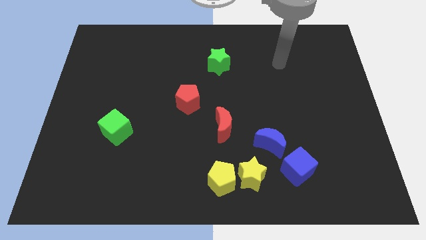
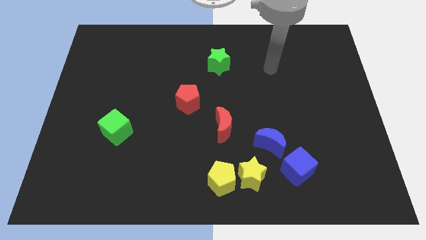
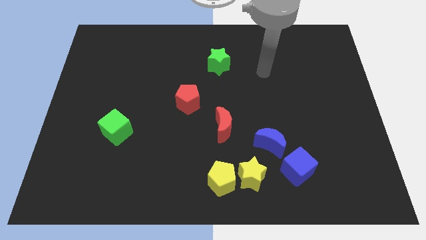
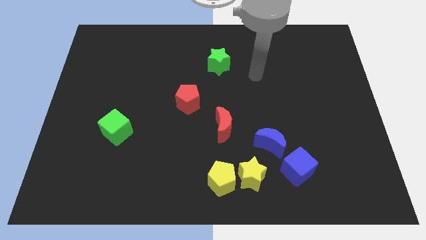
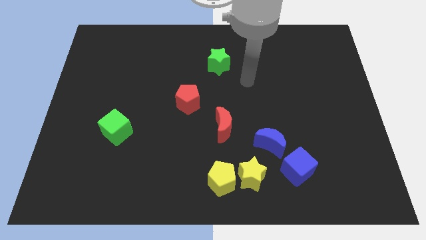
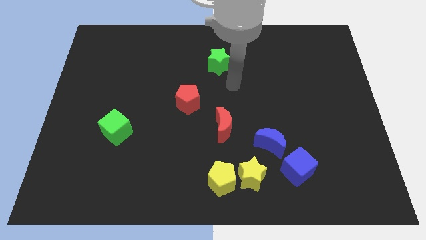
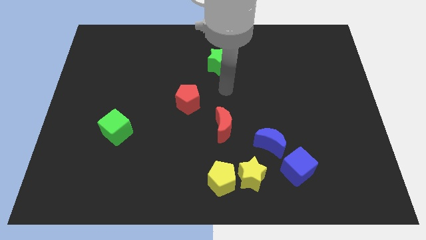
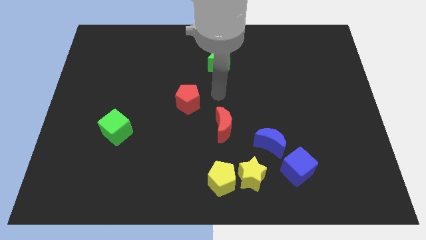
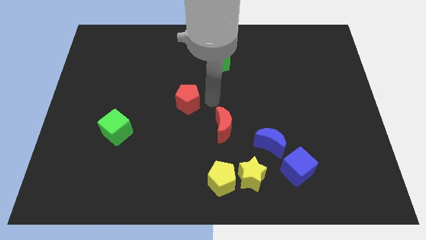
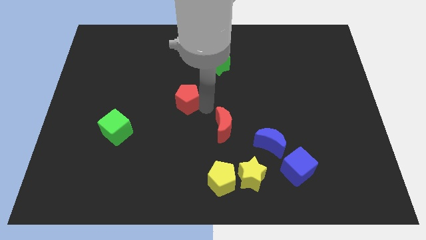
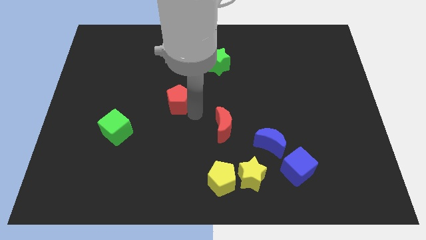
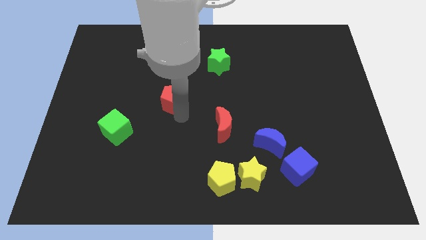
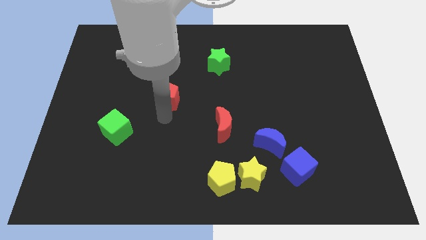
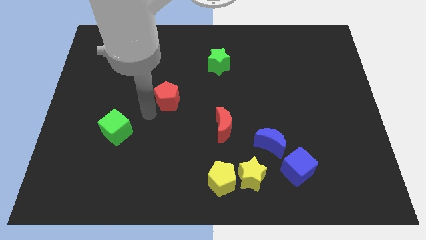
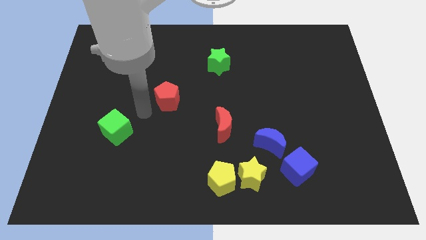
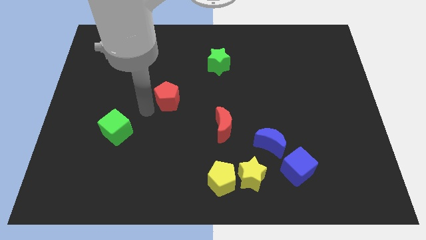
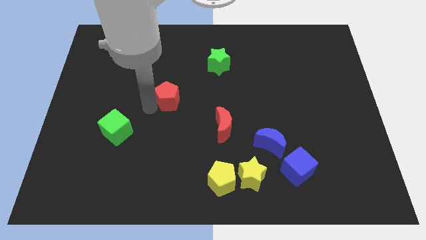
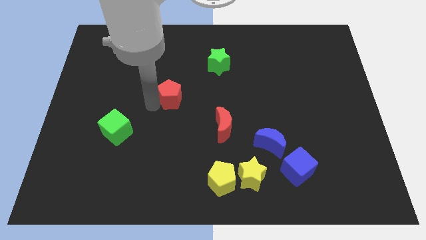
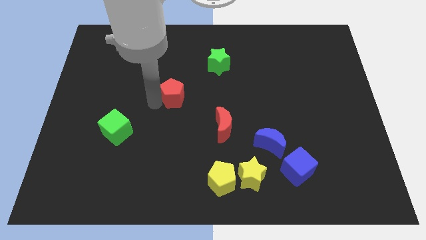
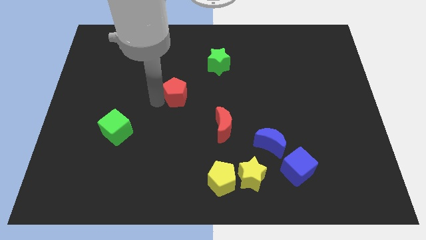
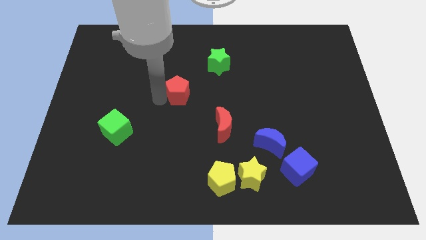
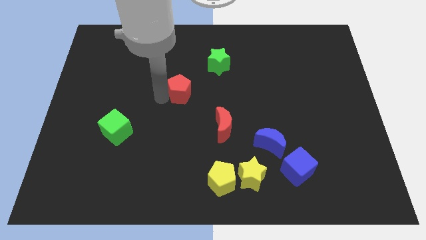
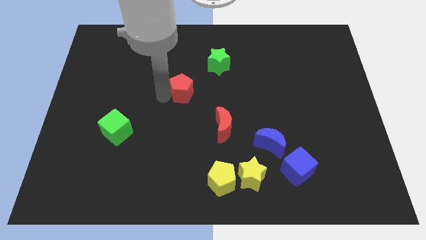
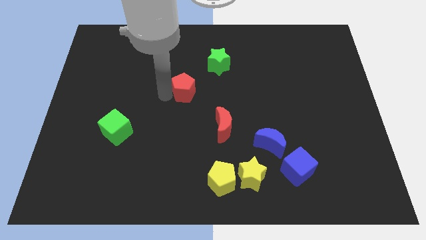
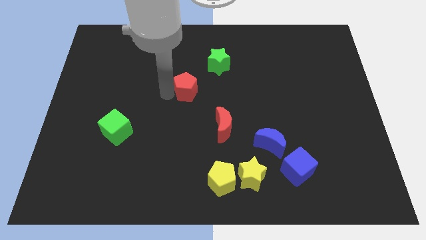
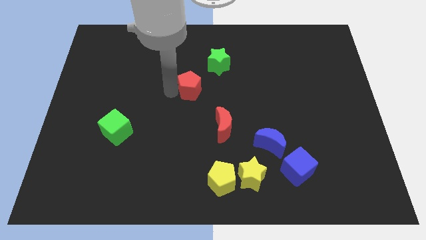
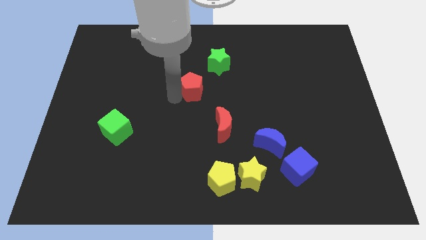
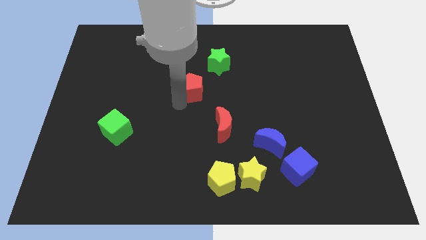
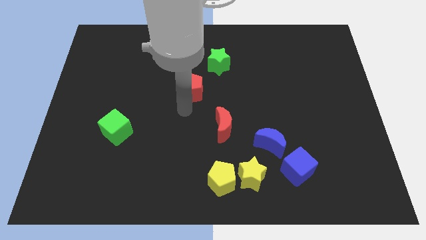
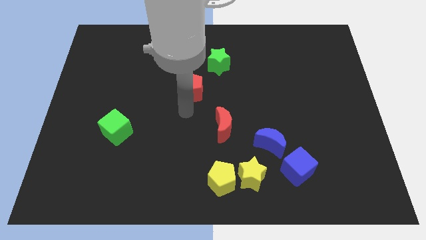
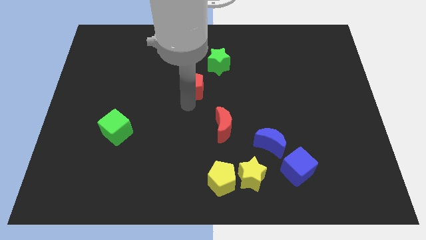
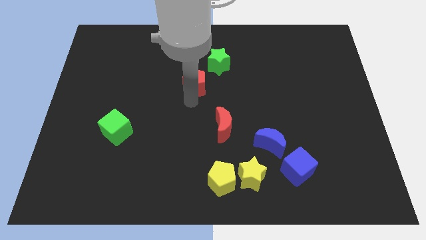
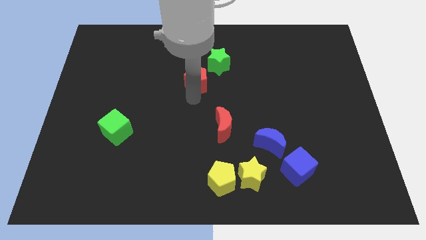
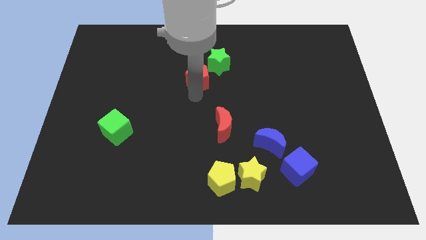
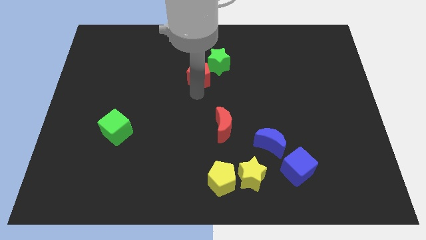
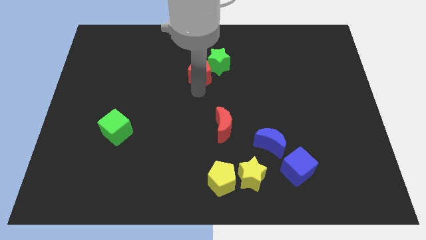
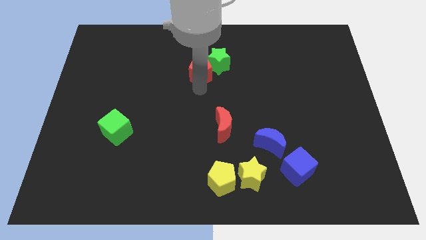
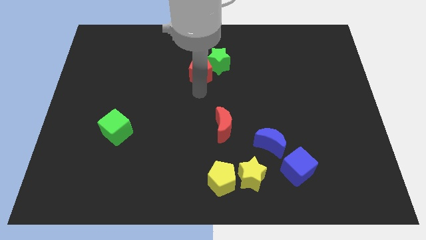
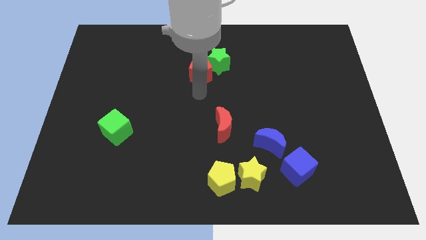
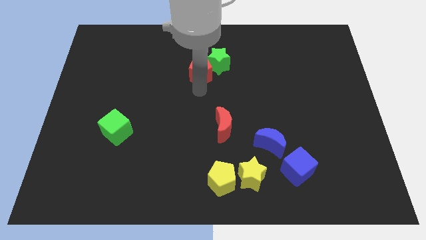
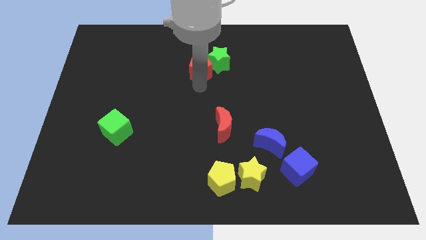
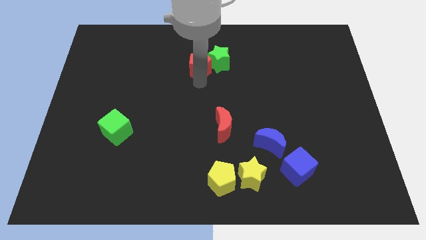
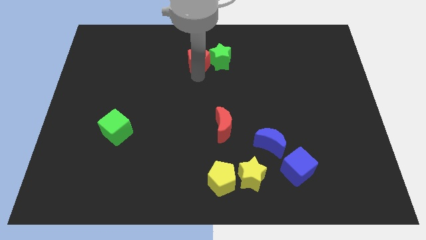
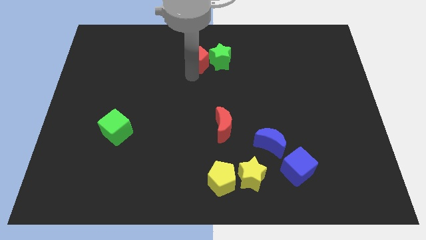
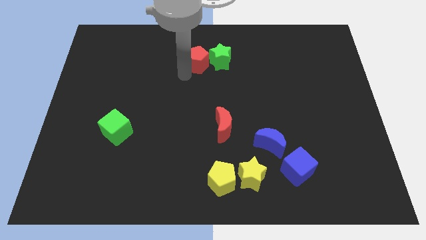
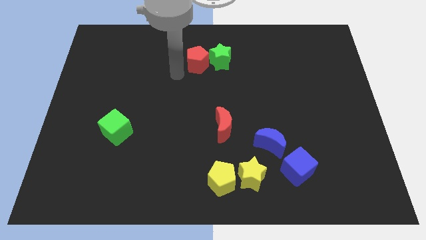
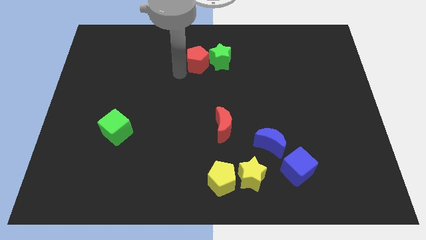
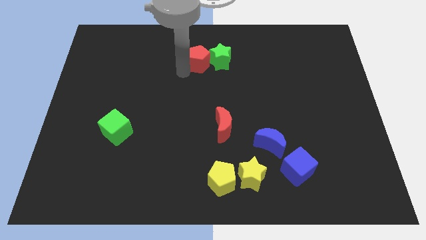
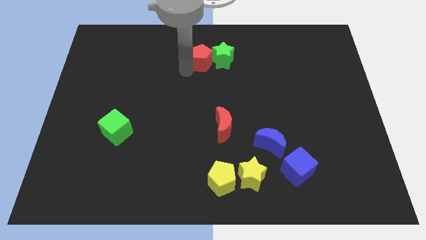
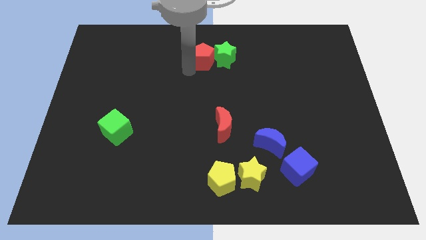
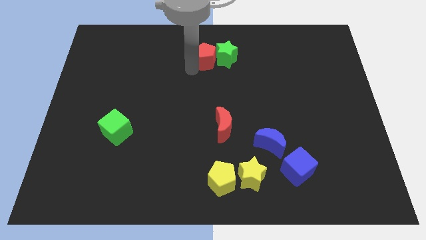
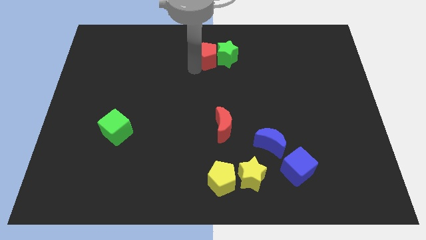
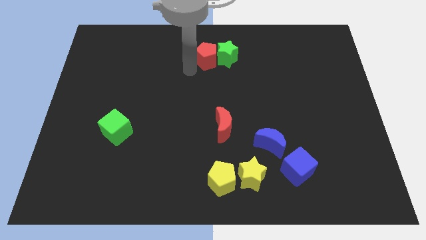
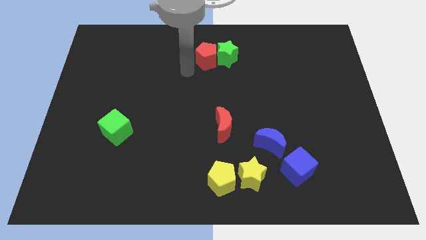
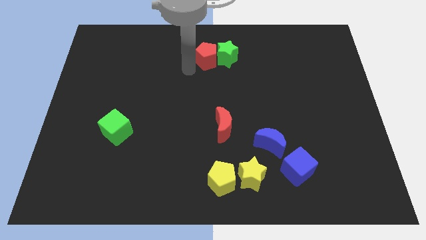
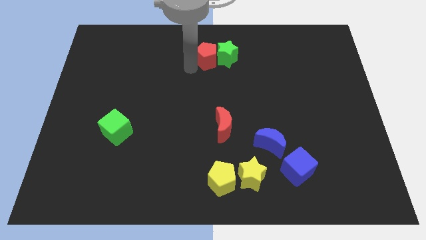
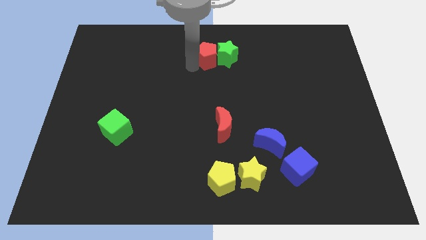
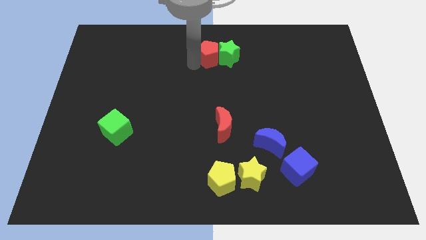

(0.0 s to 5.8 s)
put the red pentagon to the top side

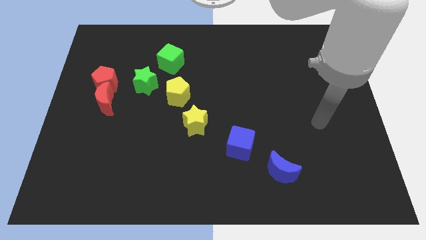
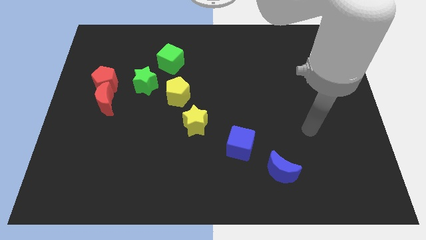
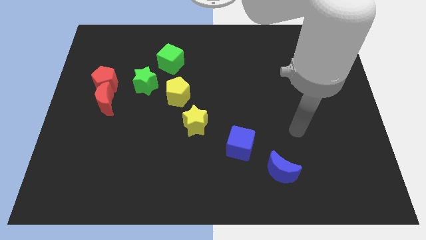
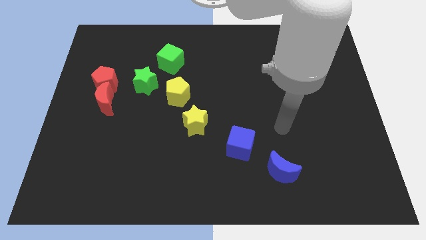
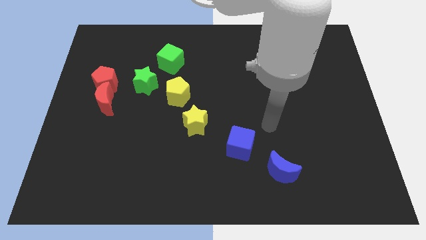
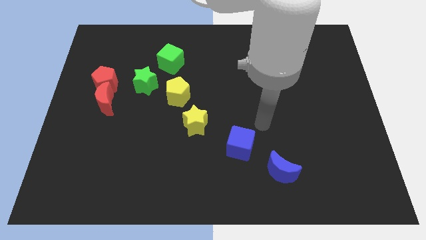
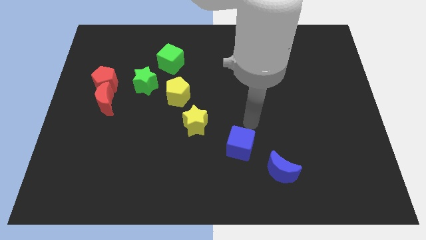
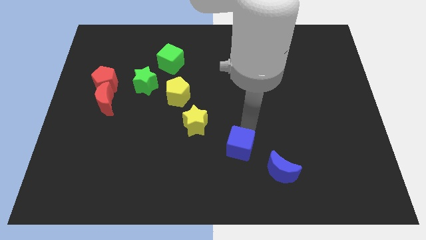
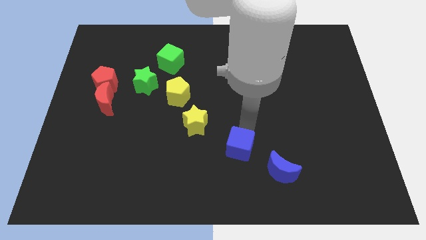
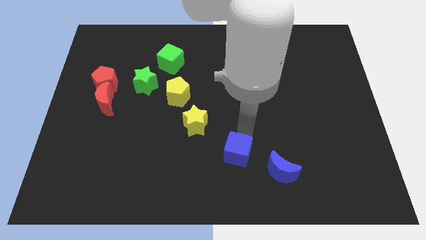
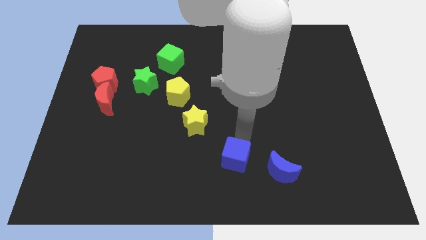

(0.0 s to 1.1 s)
put the blue cube to the bottom

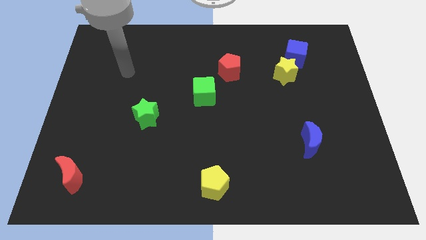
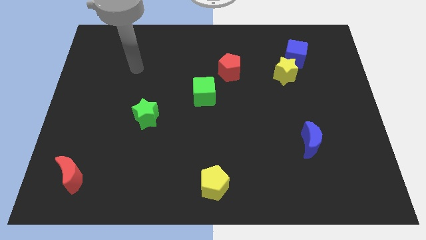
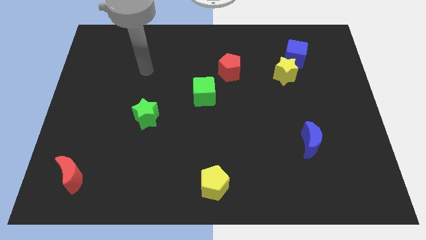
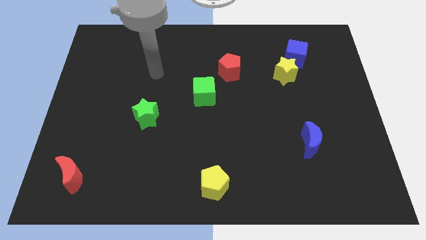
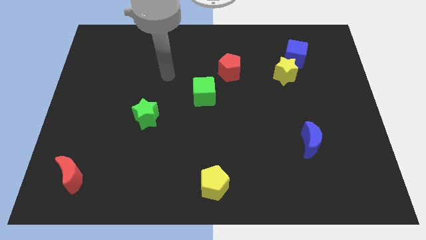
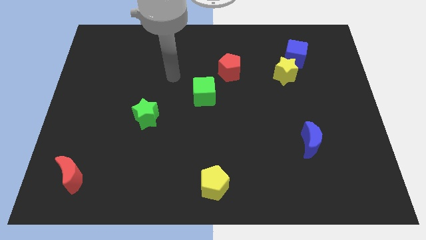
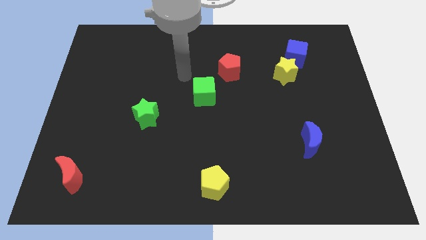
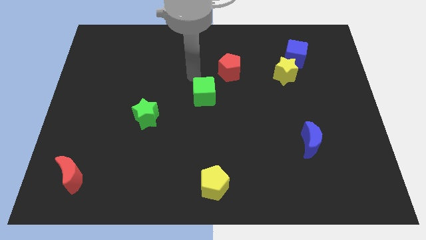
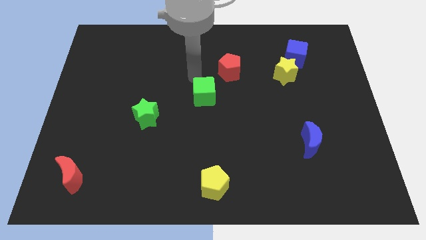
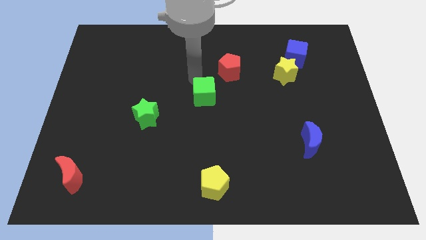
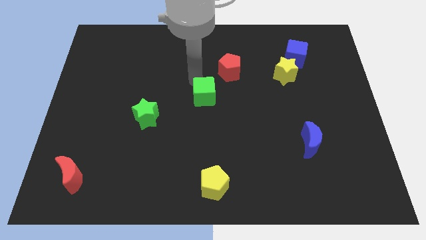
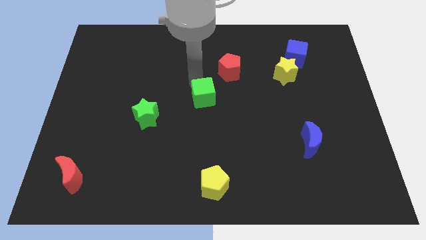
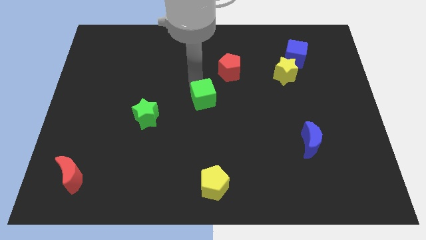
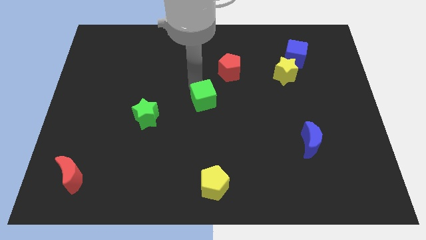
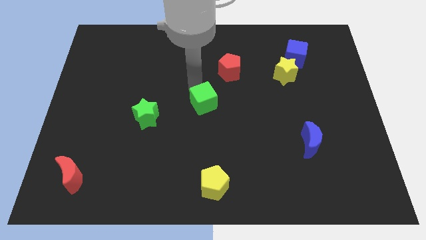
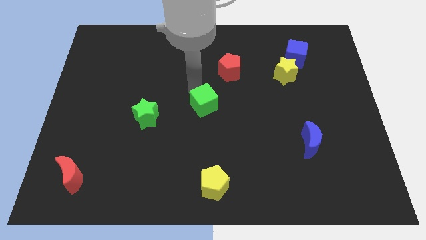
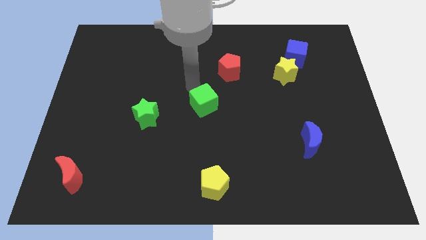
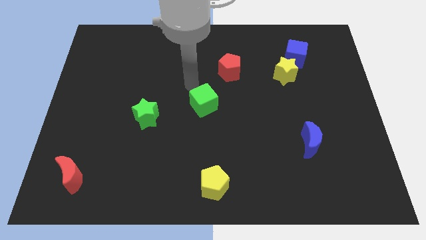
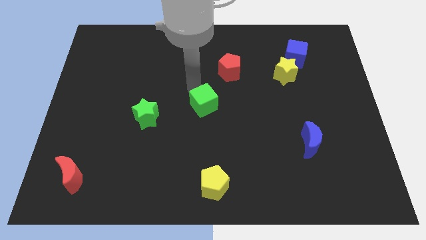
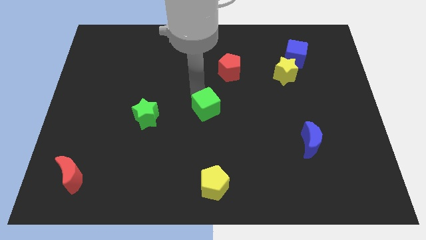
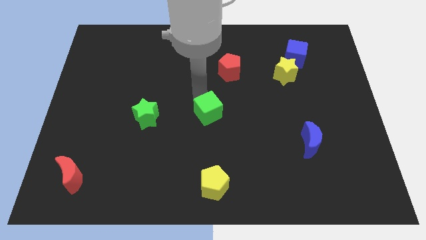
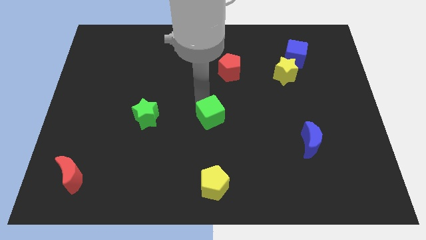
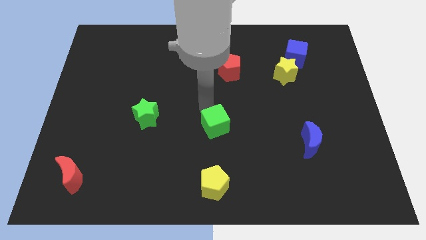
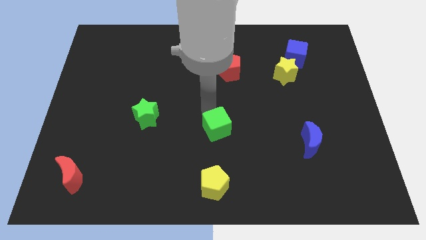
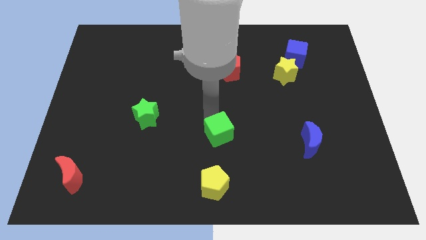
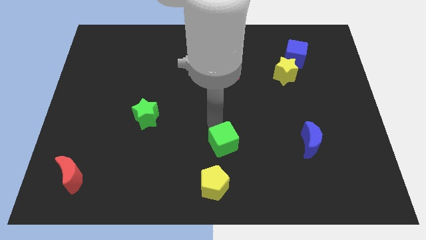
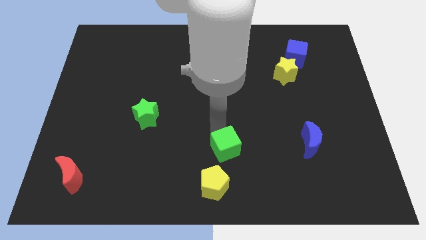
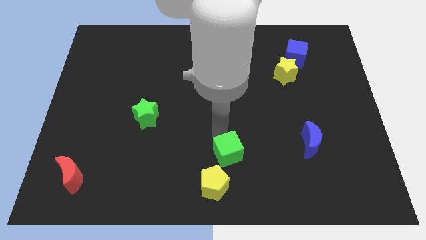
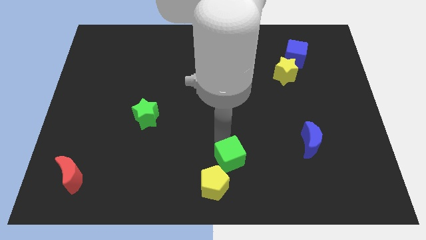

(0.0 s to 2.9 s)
move the green cube to the bottom side
